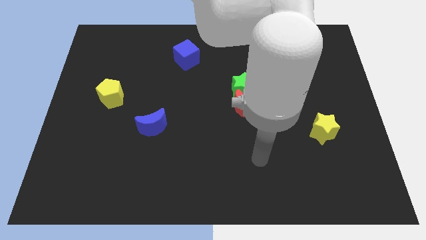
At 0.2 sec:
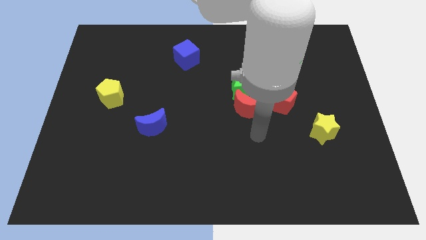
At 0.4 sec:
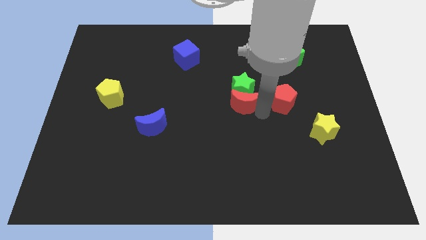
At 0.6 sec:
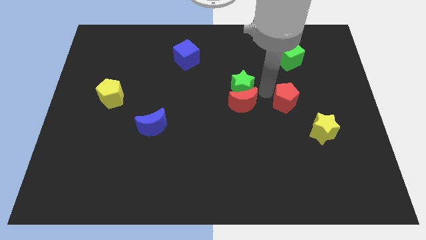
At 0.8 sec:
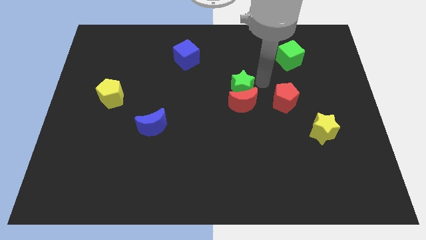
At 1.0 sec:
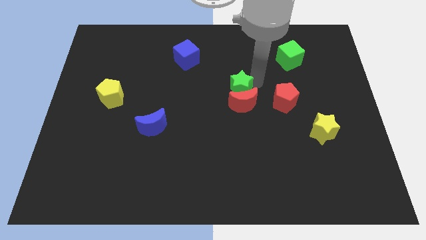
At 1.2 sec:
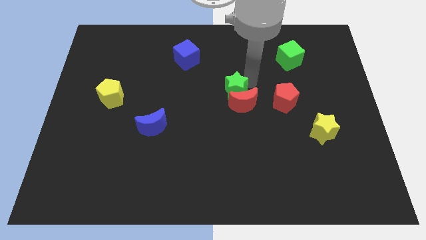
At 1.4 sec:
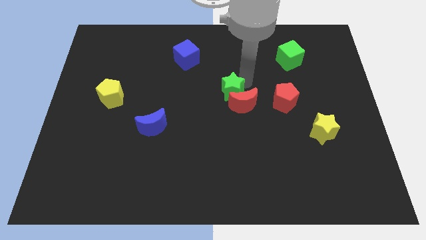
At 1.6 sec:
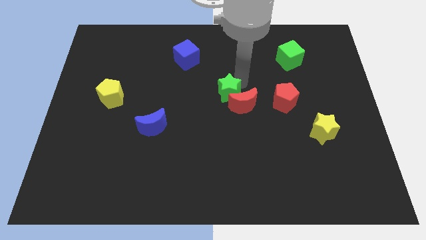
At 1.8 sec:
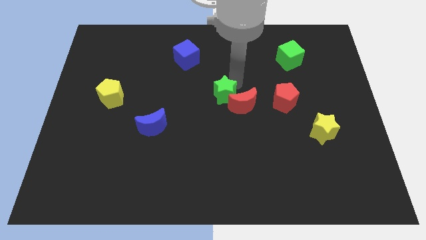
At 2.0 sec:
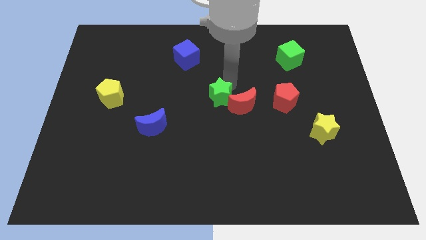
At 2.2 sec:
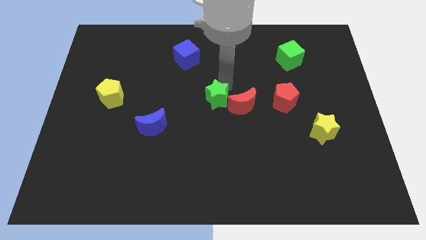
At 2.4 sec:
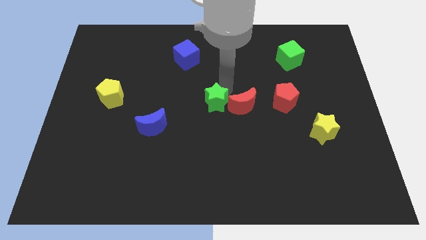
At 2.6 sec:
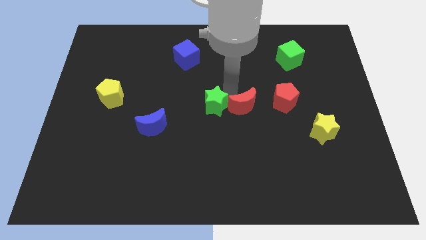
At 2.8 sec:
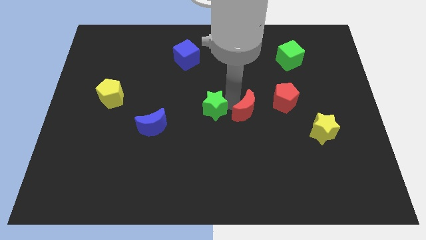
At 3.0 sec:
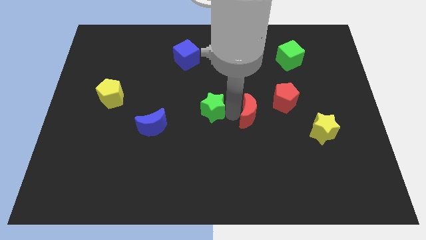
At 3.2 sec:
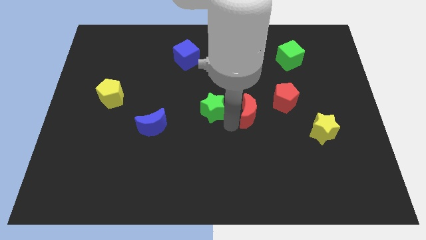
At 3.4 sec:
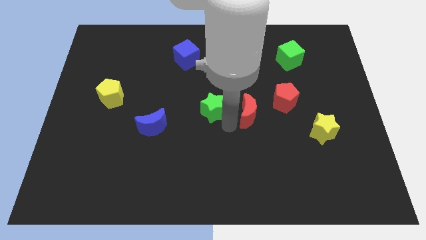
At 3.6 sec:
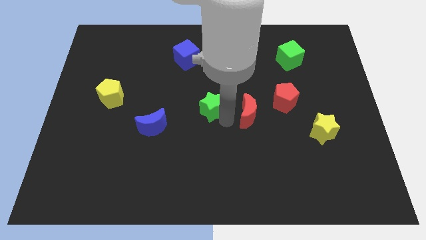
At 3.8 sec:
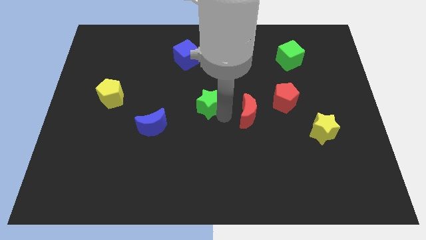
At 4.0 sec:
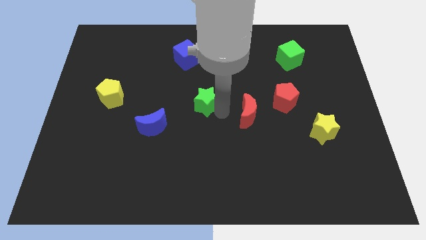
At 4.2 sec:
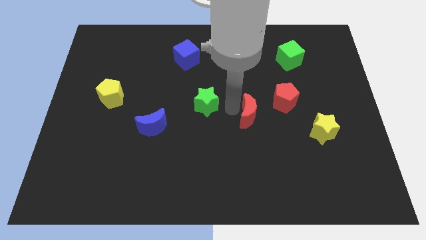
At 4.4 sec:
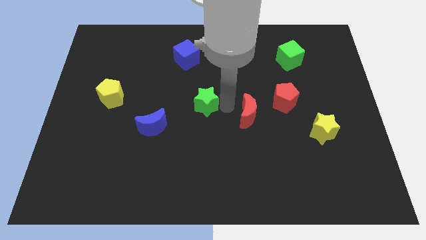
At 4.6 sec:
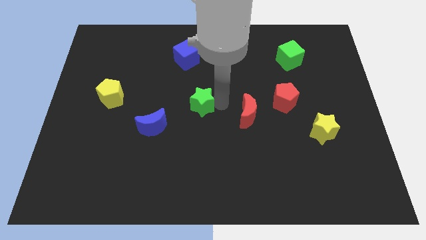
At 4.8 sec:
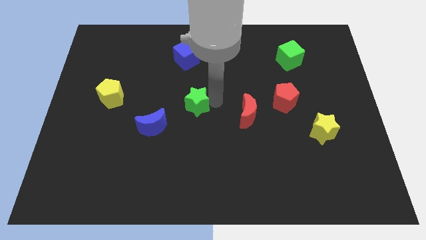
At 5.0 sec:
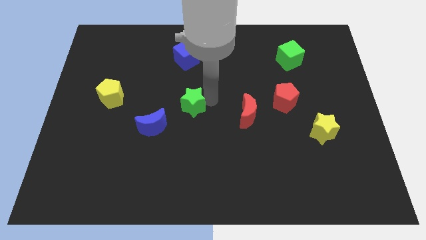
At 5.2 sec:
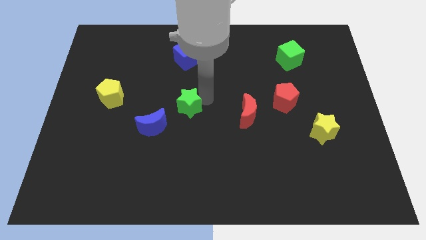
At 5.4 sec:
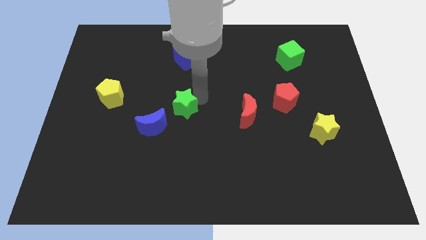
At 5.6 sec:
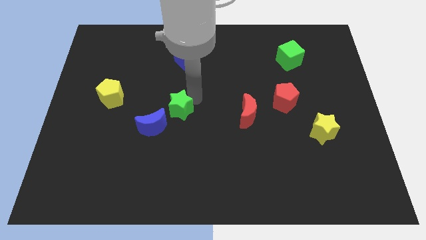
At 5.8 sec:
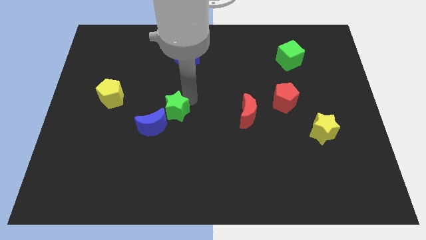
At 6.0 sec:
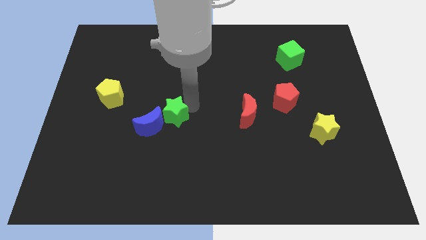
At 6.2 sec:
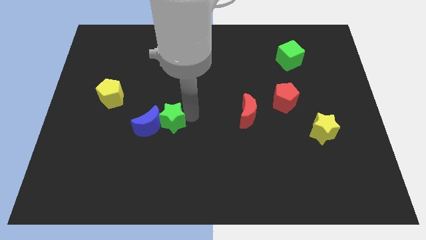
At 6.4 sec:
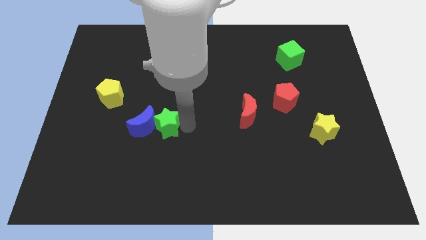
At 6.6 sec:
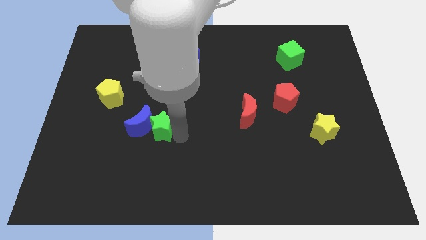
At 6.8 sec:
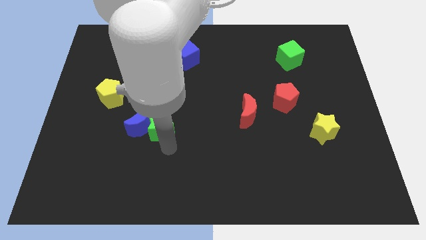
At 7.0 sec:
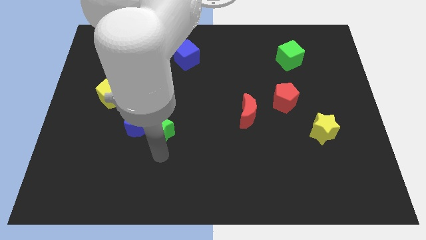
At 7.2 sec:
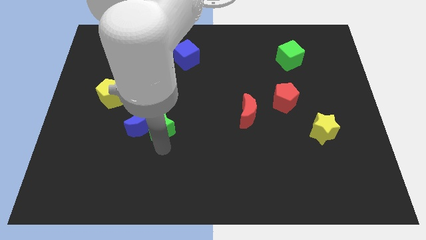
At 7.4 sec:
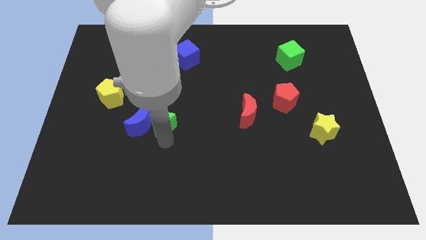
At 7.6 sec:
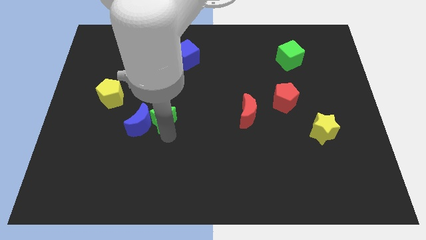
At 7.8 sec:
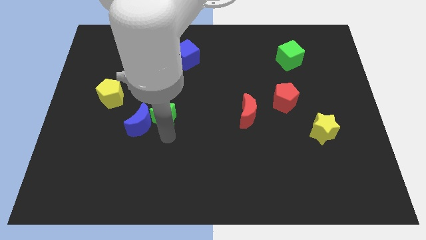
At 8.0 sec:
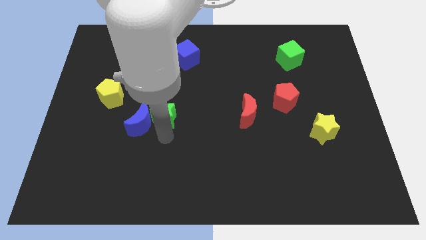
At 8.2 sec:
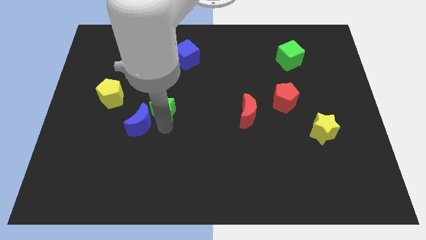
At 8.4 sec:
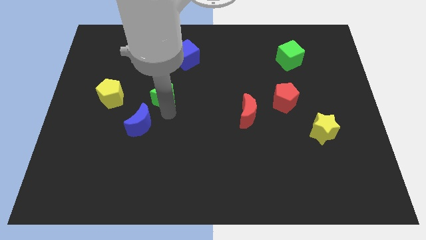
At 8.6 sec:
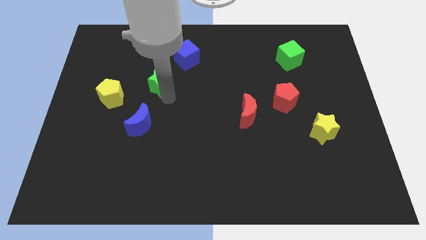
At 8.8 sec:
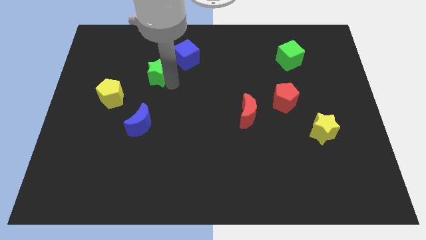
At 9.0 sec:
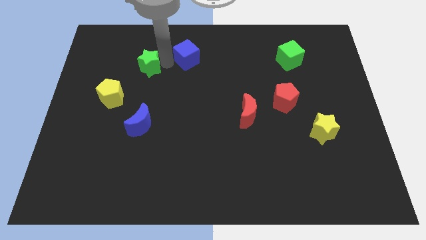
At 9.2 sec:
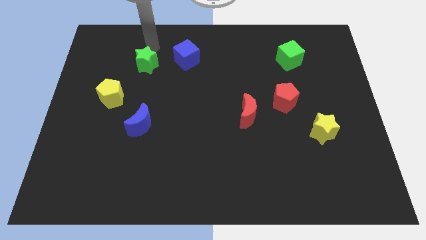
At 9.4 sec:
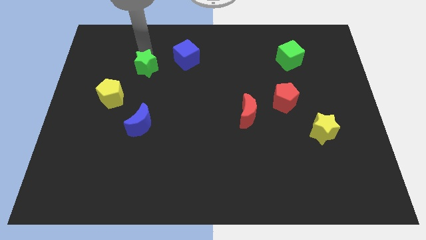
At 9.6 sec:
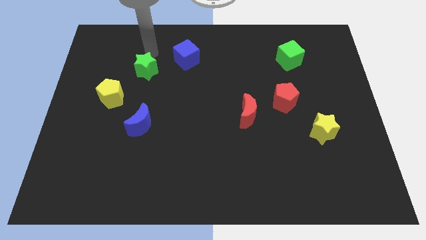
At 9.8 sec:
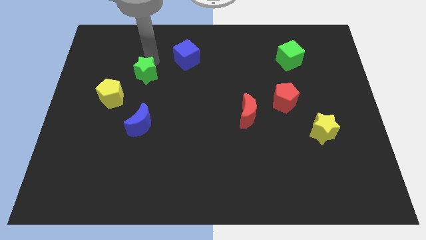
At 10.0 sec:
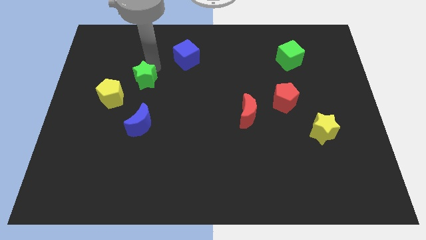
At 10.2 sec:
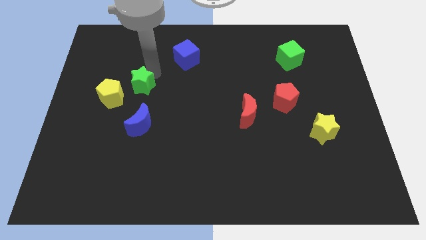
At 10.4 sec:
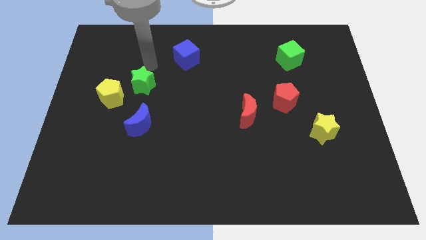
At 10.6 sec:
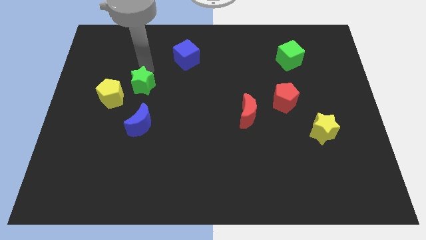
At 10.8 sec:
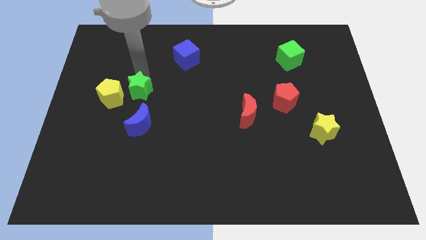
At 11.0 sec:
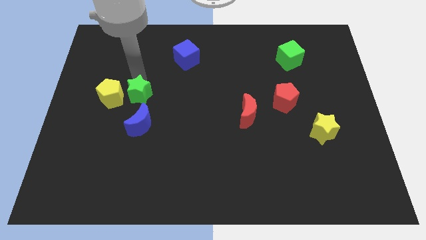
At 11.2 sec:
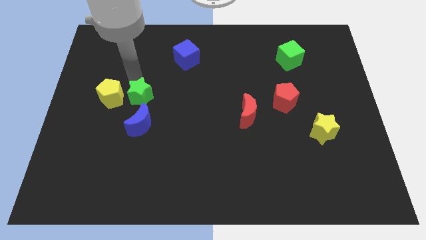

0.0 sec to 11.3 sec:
slide the green star to the bottom right side of the yellow pentagon
